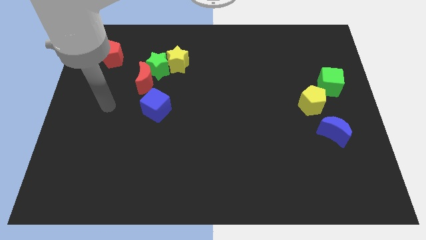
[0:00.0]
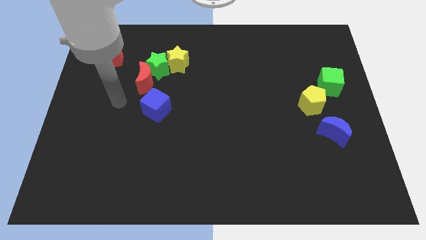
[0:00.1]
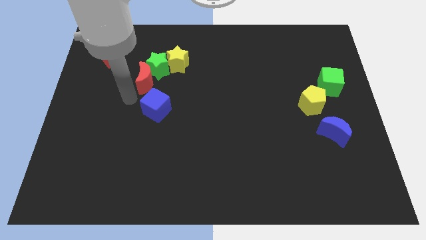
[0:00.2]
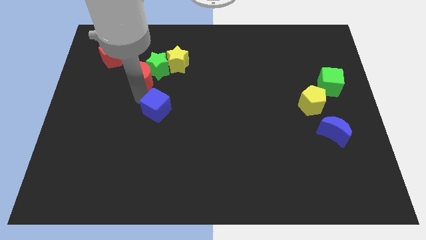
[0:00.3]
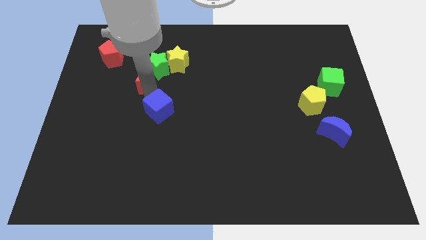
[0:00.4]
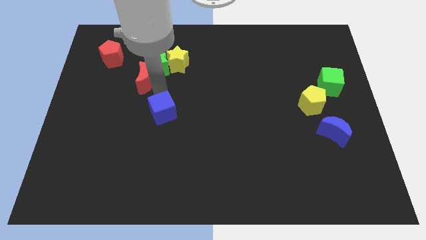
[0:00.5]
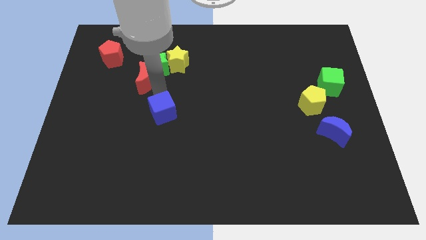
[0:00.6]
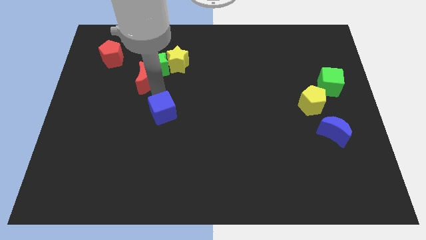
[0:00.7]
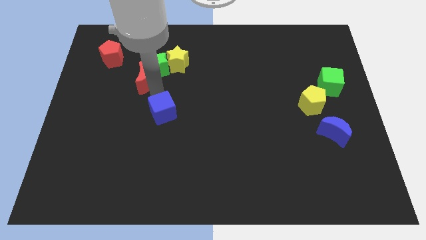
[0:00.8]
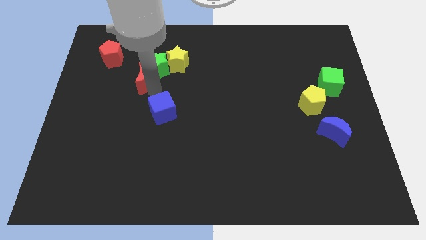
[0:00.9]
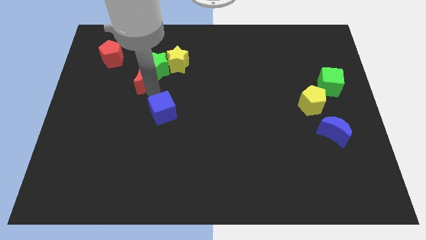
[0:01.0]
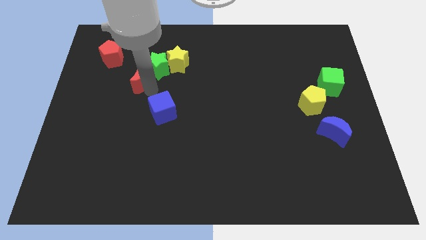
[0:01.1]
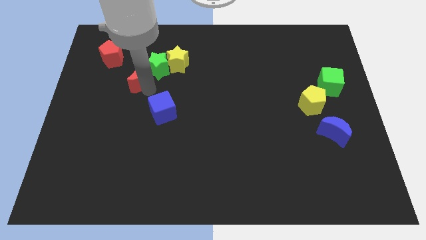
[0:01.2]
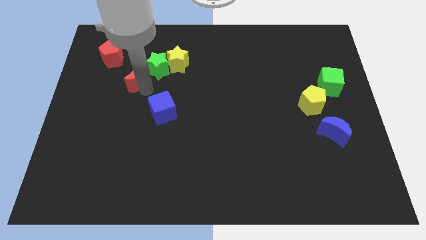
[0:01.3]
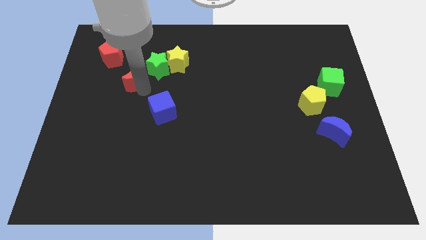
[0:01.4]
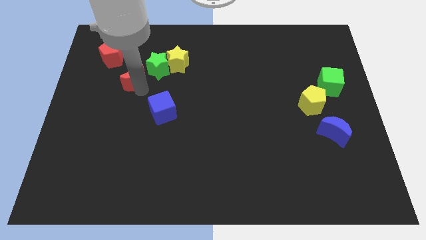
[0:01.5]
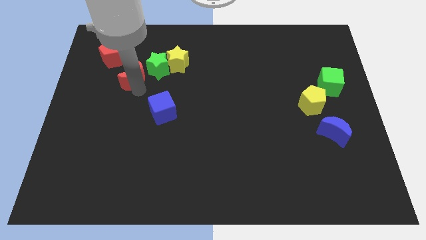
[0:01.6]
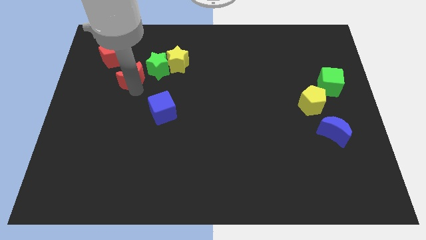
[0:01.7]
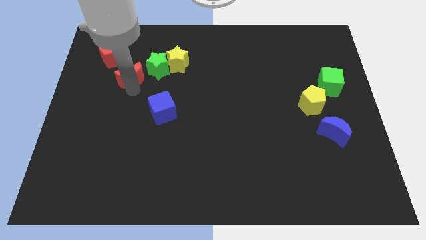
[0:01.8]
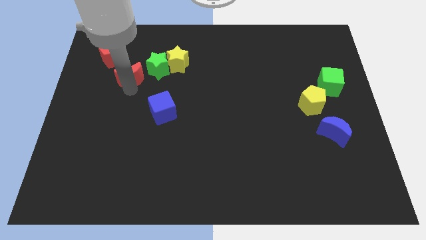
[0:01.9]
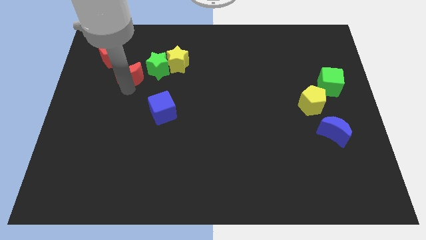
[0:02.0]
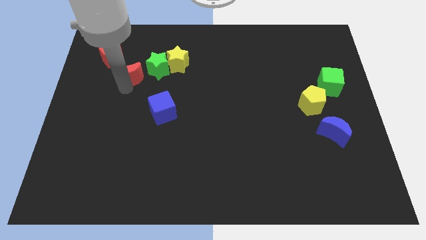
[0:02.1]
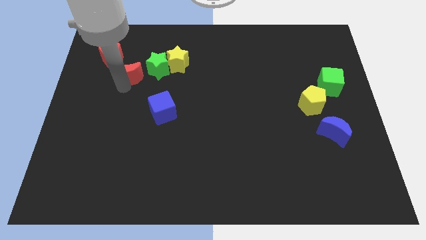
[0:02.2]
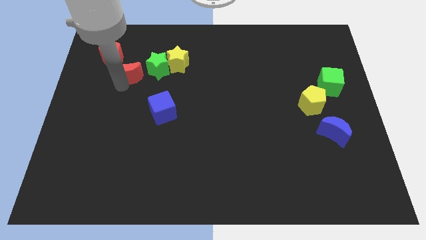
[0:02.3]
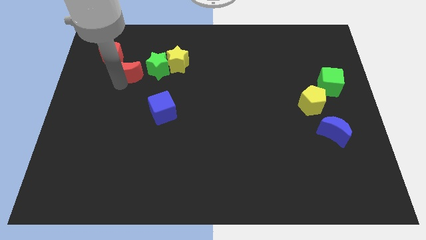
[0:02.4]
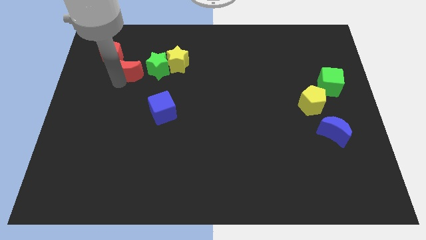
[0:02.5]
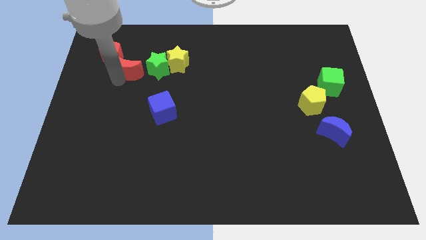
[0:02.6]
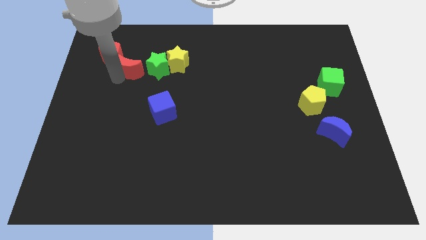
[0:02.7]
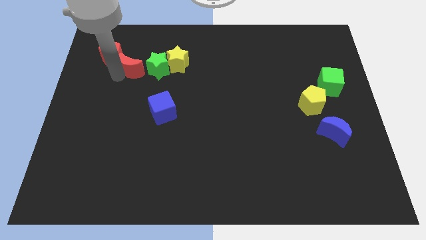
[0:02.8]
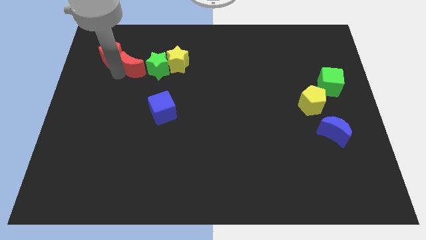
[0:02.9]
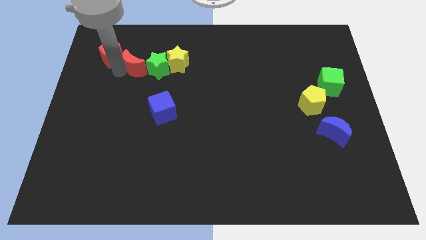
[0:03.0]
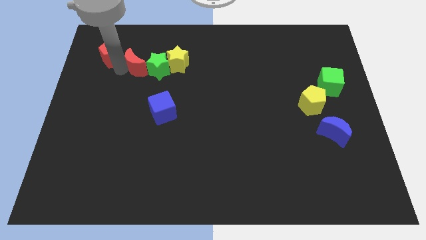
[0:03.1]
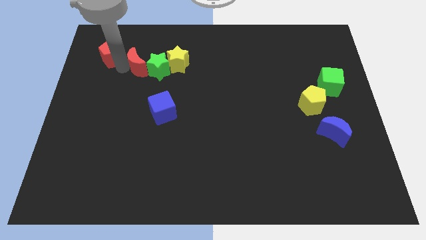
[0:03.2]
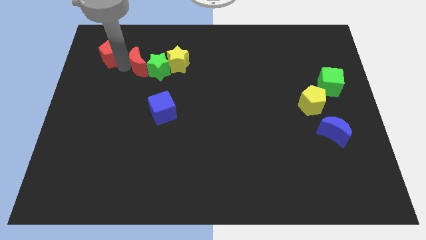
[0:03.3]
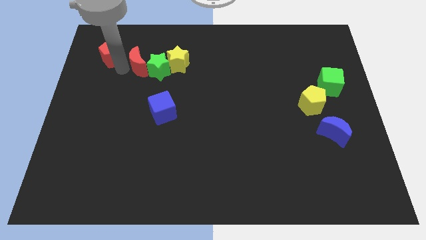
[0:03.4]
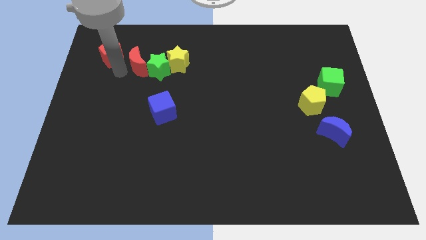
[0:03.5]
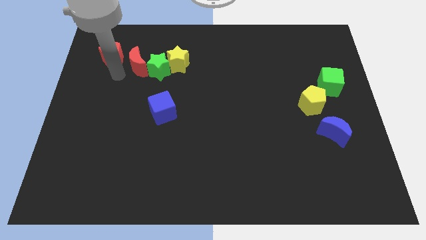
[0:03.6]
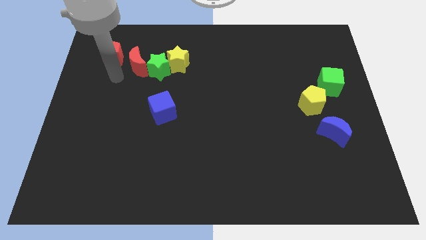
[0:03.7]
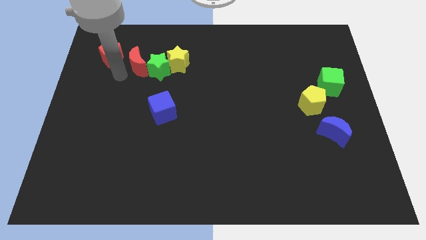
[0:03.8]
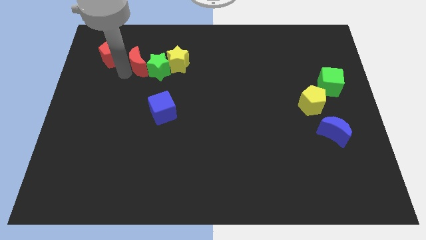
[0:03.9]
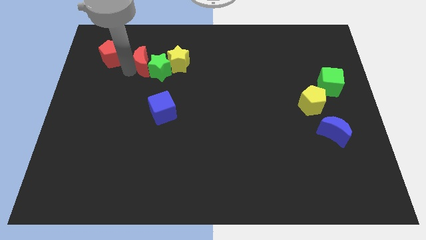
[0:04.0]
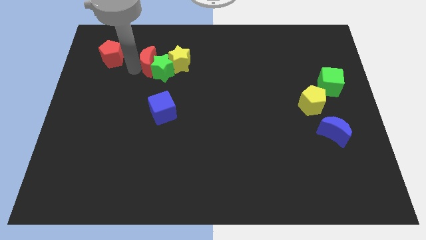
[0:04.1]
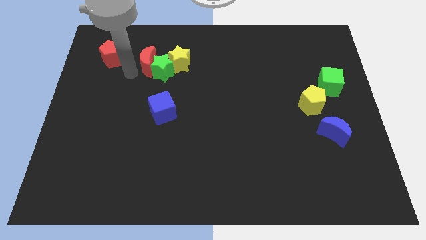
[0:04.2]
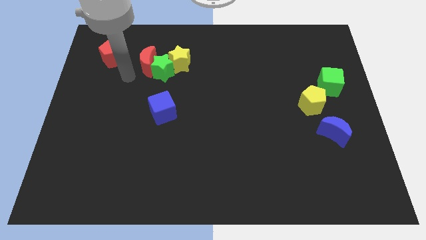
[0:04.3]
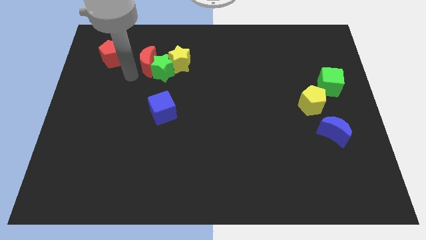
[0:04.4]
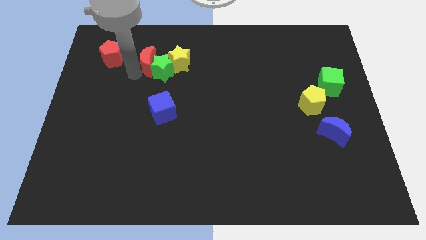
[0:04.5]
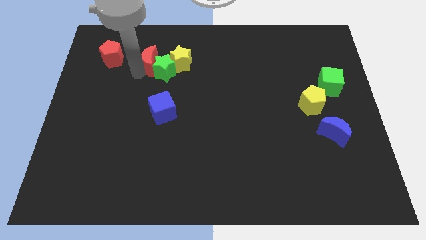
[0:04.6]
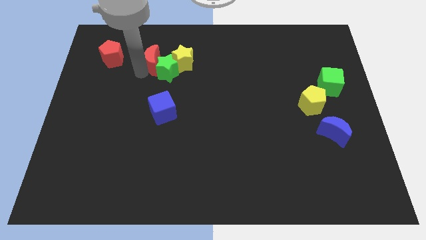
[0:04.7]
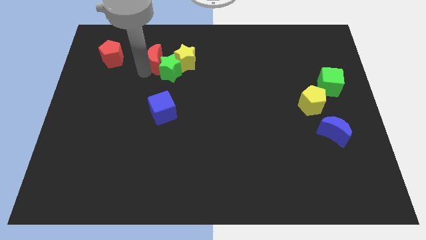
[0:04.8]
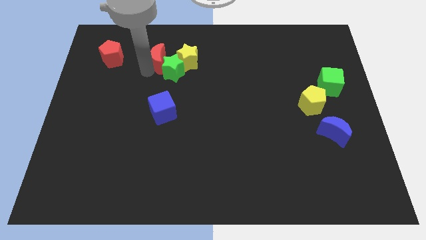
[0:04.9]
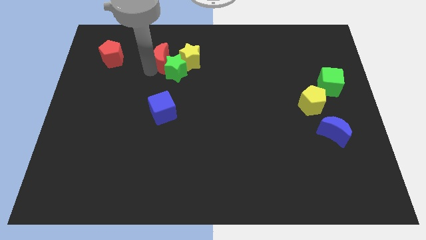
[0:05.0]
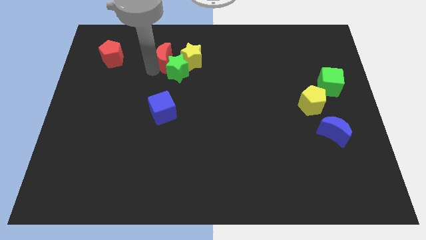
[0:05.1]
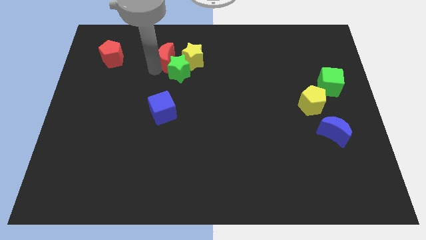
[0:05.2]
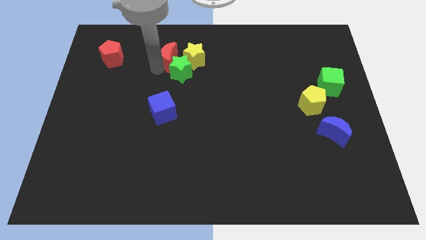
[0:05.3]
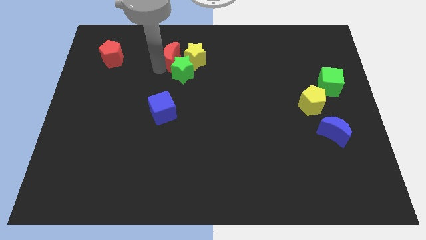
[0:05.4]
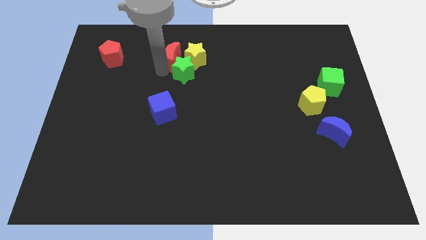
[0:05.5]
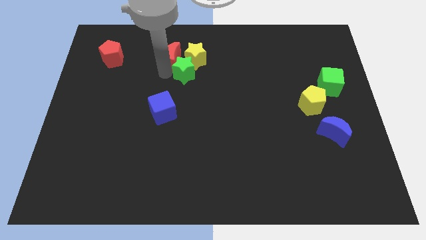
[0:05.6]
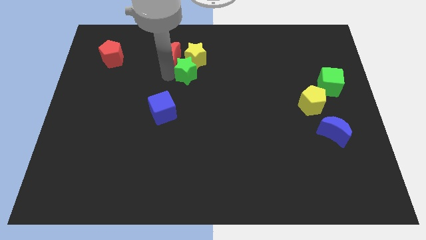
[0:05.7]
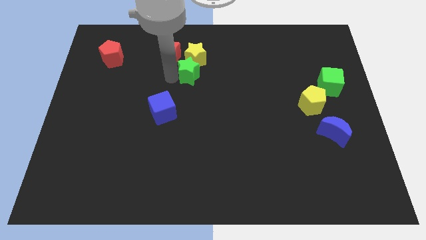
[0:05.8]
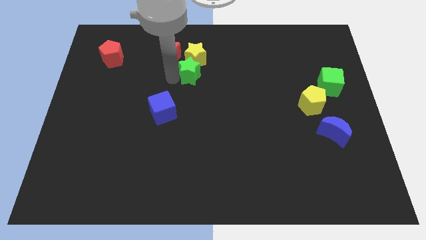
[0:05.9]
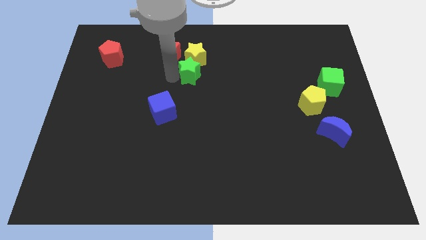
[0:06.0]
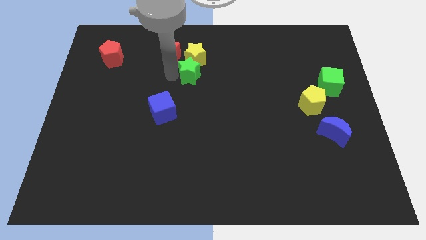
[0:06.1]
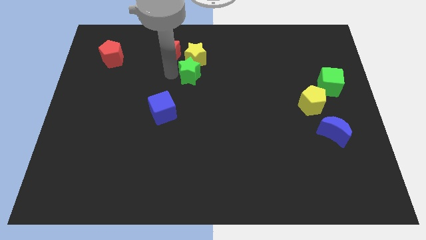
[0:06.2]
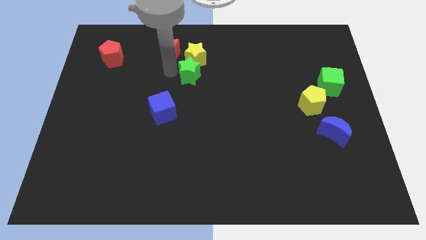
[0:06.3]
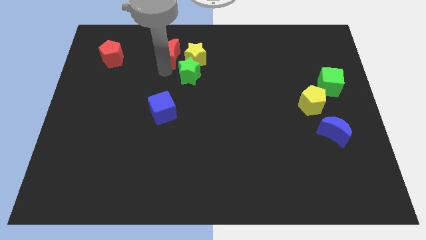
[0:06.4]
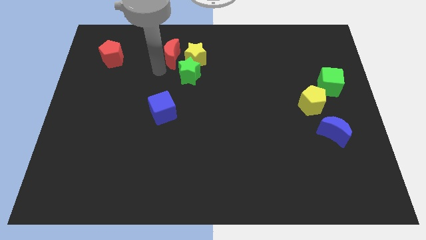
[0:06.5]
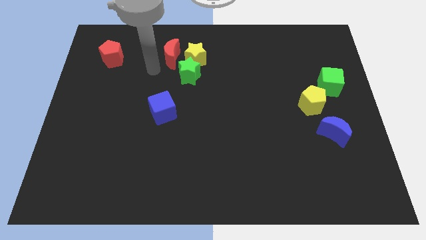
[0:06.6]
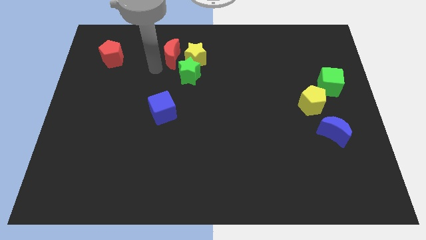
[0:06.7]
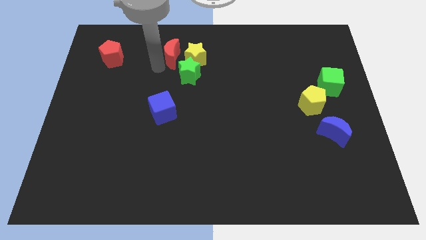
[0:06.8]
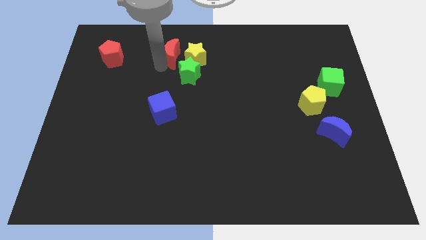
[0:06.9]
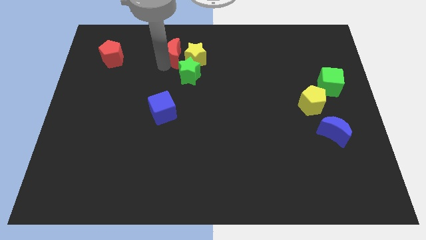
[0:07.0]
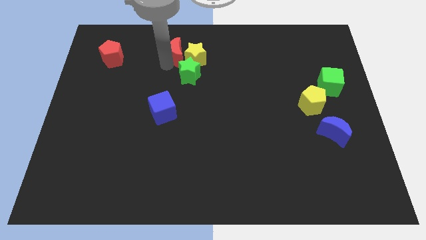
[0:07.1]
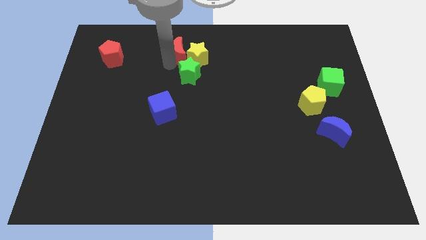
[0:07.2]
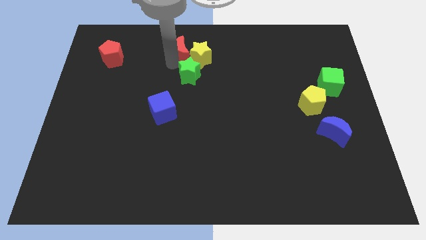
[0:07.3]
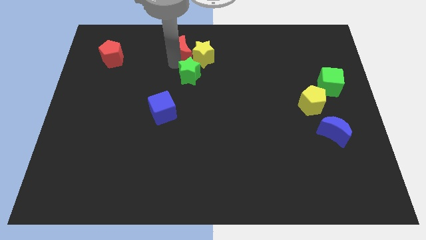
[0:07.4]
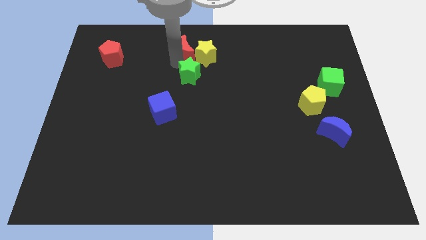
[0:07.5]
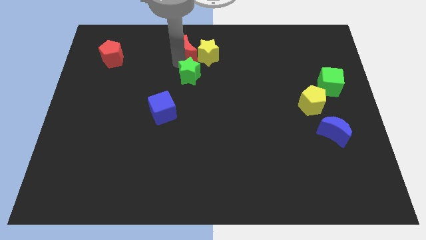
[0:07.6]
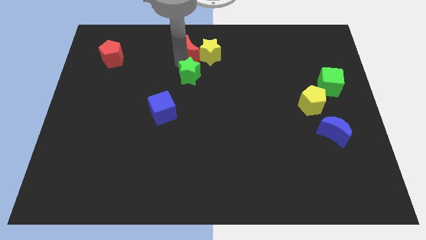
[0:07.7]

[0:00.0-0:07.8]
slide the red moon to the top side
